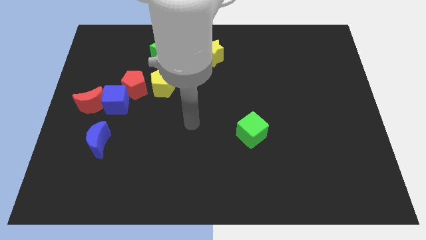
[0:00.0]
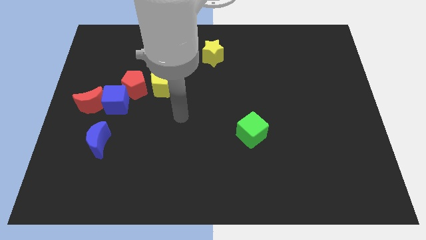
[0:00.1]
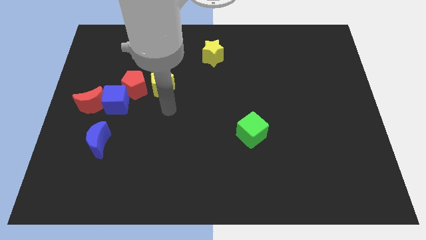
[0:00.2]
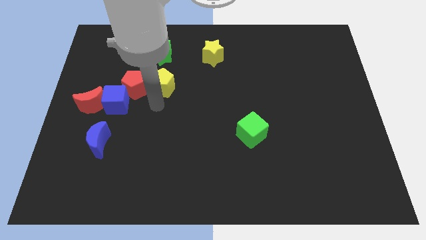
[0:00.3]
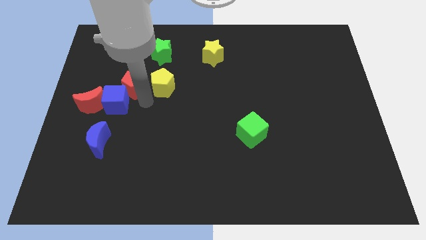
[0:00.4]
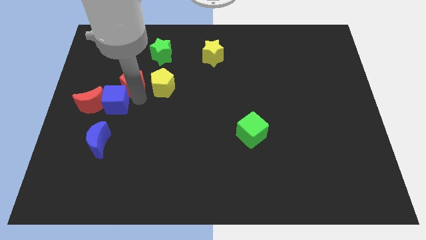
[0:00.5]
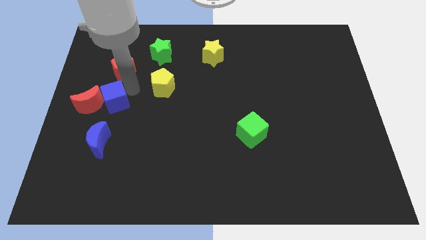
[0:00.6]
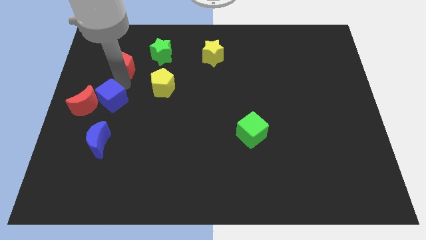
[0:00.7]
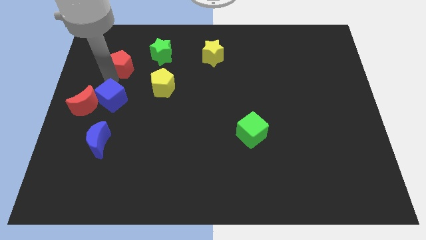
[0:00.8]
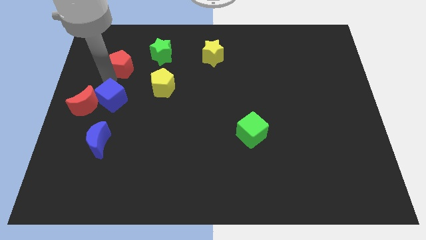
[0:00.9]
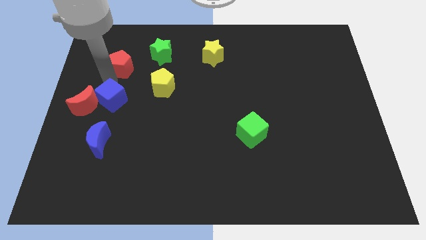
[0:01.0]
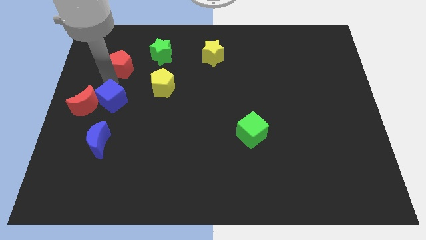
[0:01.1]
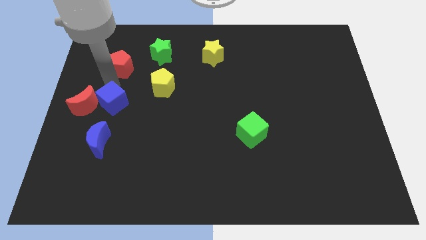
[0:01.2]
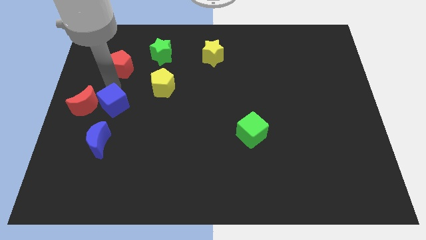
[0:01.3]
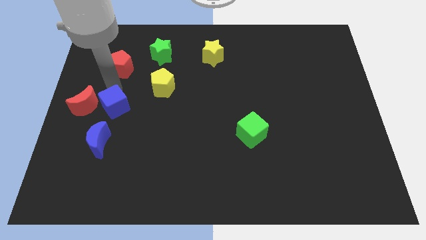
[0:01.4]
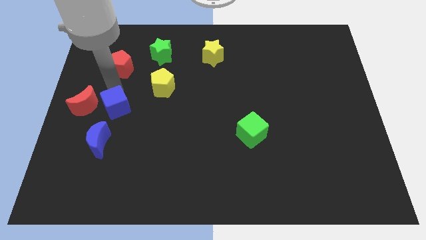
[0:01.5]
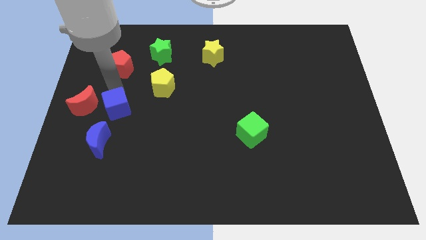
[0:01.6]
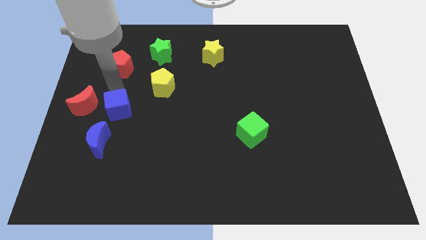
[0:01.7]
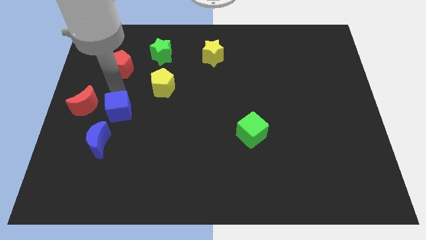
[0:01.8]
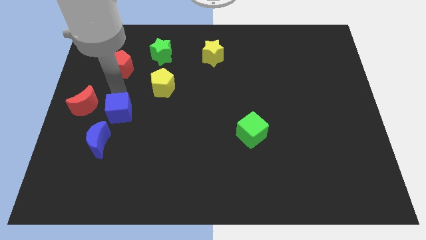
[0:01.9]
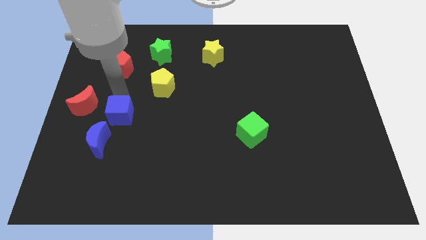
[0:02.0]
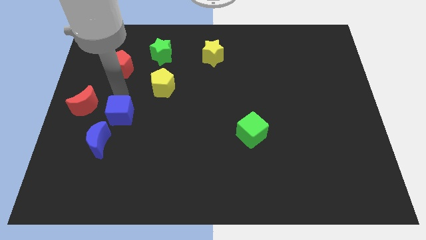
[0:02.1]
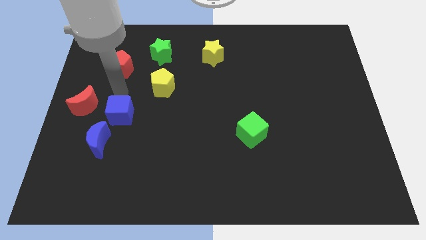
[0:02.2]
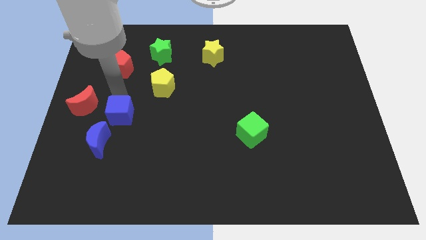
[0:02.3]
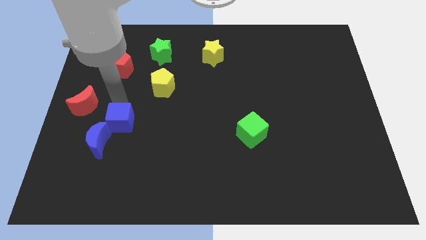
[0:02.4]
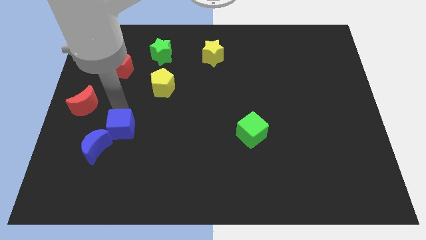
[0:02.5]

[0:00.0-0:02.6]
move the blue cube a little bit down

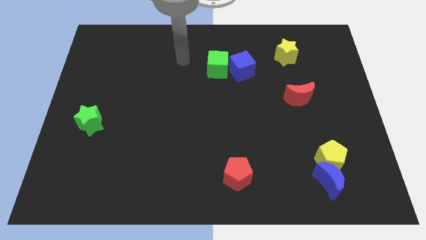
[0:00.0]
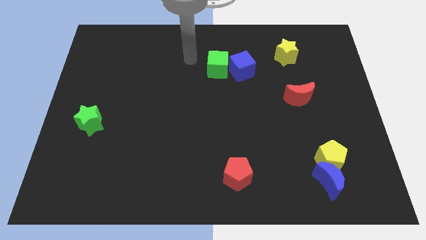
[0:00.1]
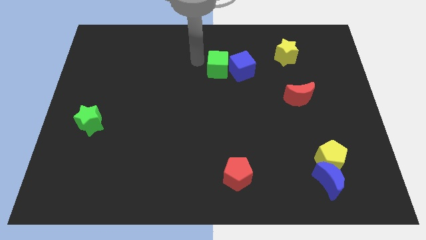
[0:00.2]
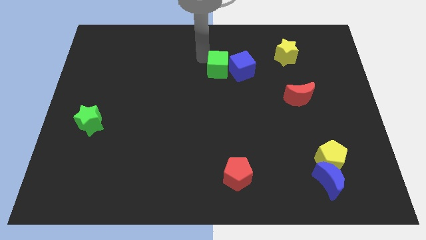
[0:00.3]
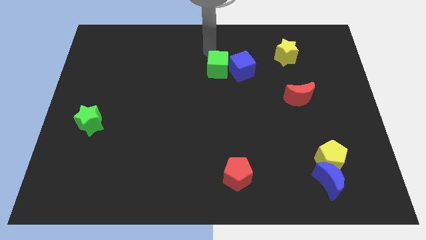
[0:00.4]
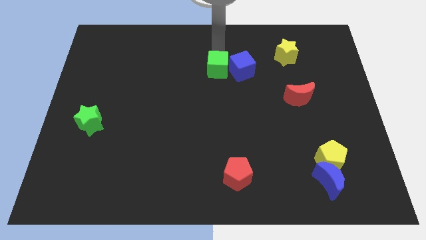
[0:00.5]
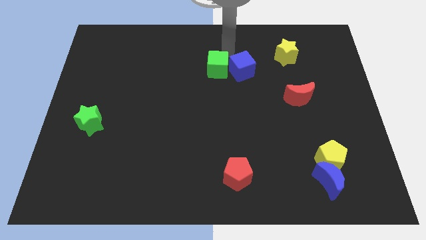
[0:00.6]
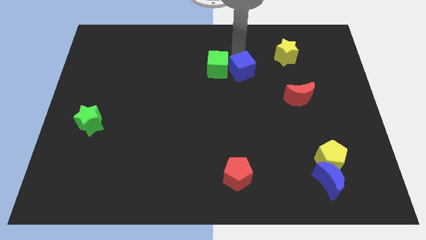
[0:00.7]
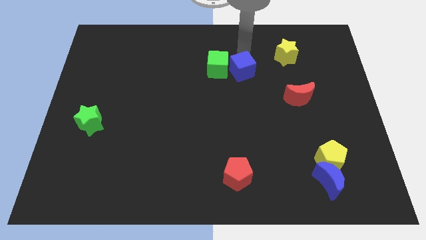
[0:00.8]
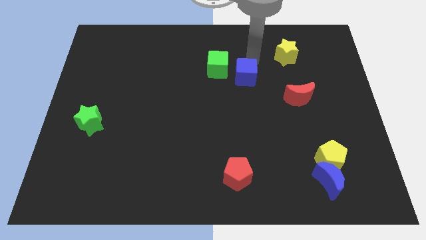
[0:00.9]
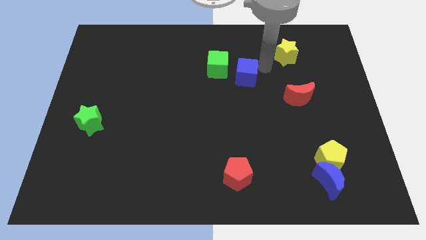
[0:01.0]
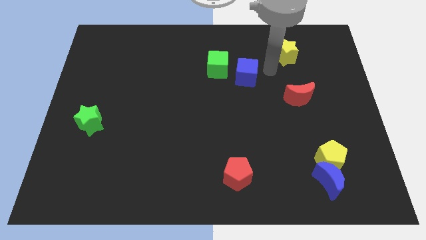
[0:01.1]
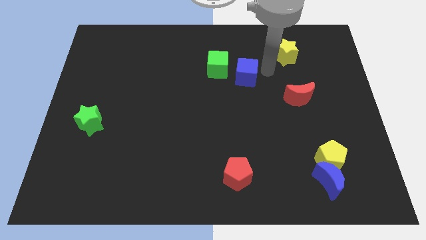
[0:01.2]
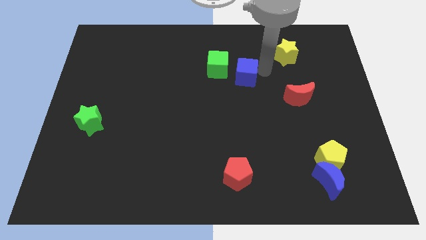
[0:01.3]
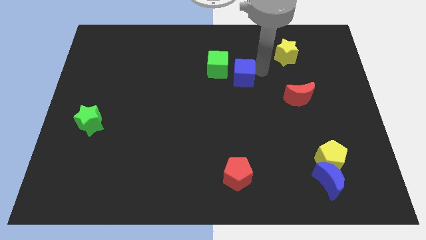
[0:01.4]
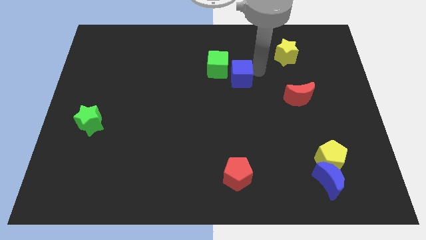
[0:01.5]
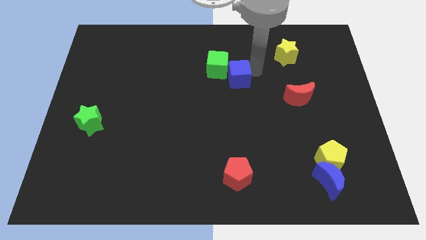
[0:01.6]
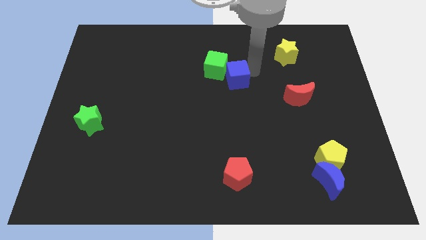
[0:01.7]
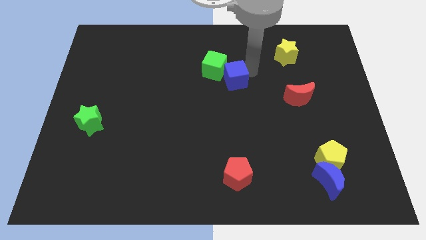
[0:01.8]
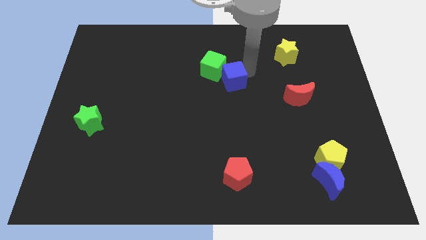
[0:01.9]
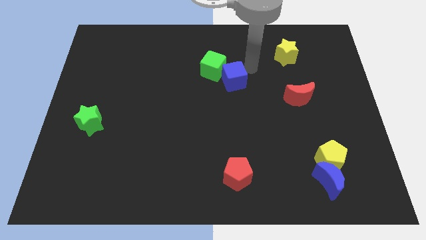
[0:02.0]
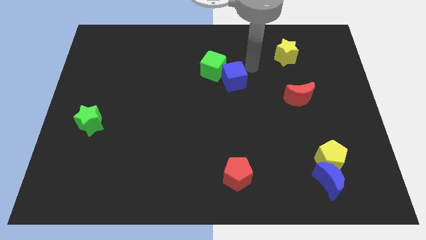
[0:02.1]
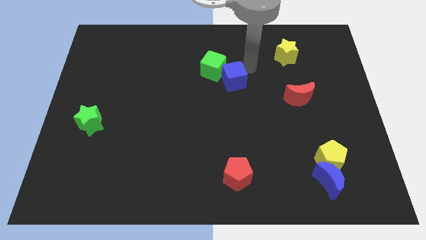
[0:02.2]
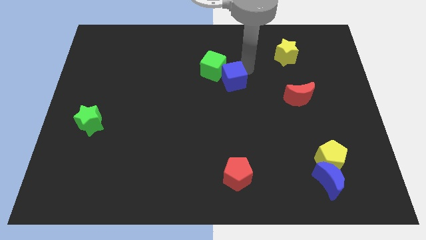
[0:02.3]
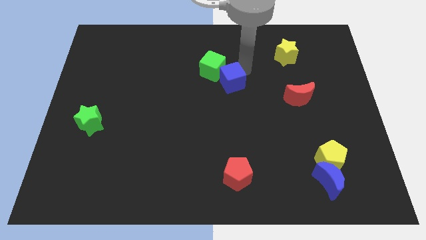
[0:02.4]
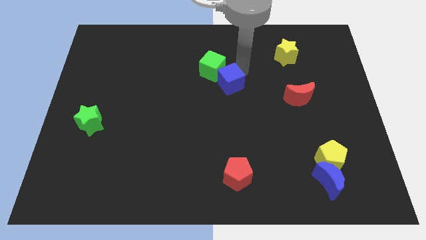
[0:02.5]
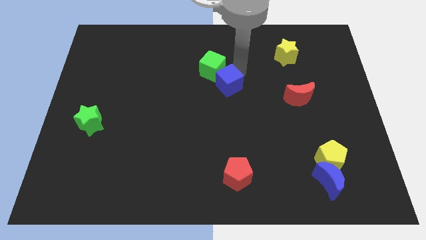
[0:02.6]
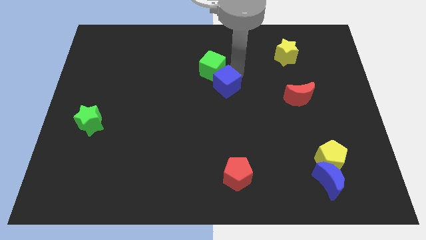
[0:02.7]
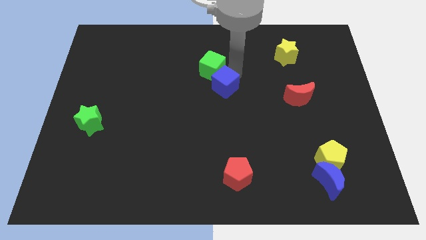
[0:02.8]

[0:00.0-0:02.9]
push the blue cube a little bit down and to the left

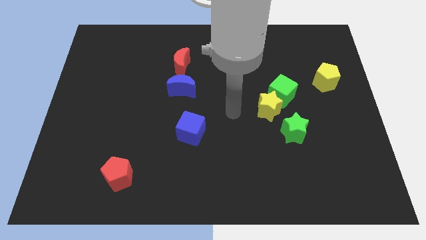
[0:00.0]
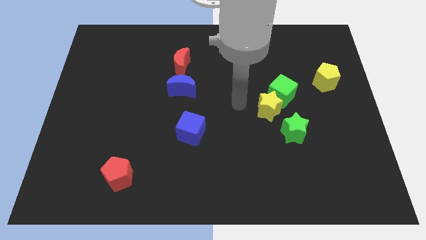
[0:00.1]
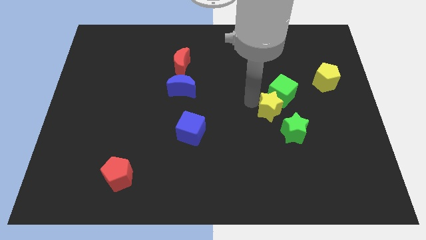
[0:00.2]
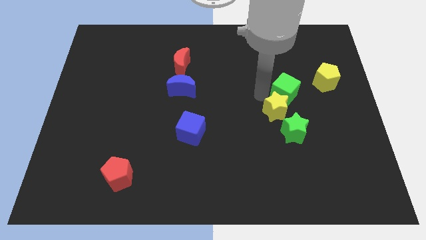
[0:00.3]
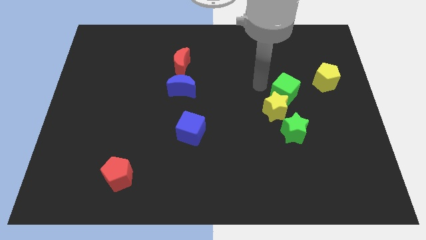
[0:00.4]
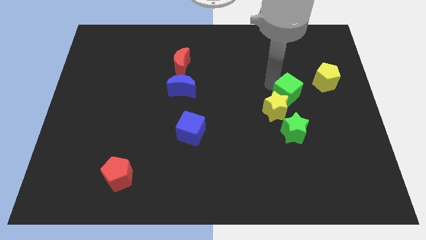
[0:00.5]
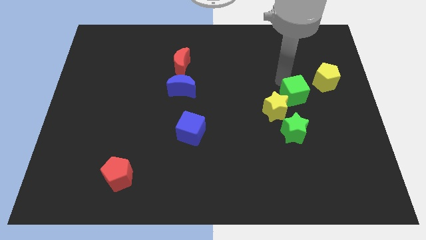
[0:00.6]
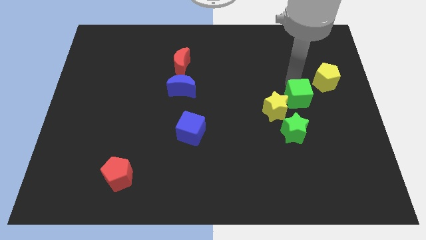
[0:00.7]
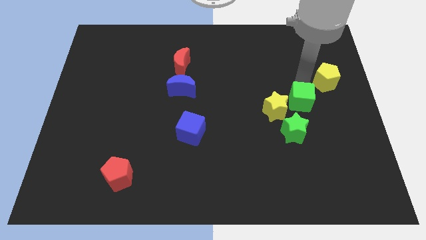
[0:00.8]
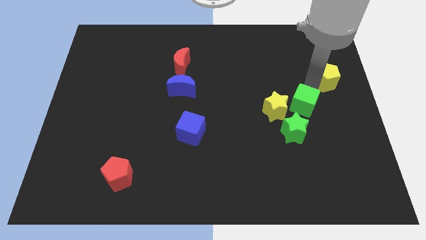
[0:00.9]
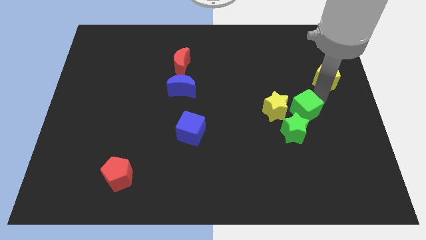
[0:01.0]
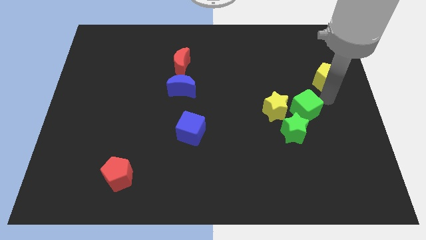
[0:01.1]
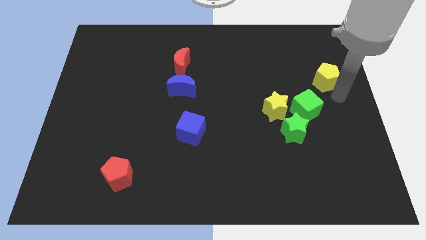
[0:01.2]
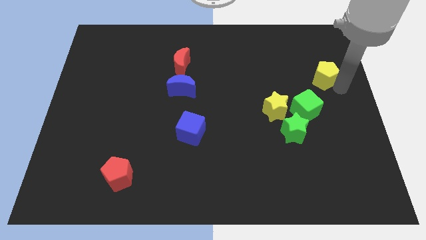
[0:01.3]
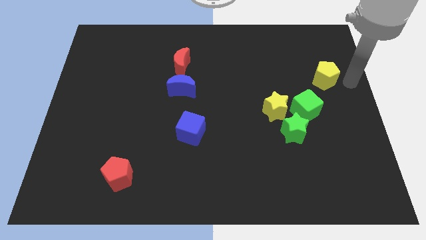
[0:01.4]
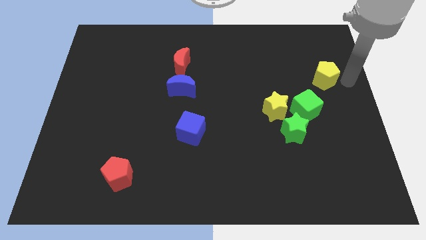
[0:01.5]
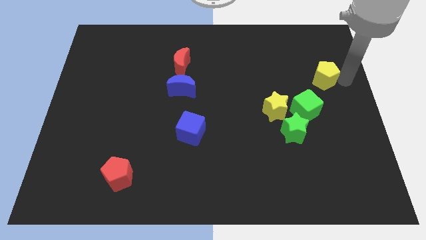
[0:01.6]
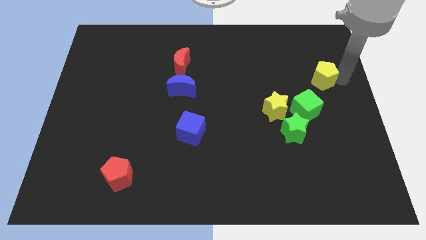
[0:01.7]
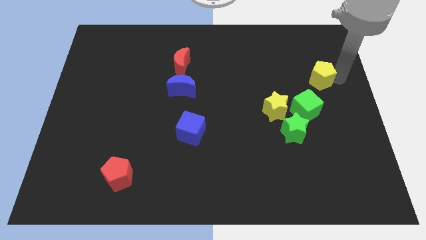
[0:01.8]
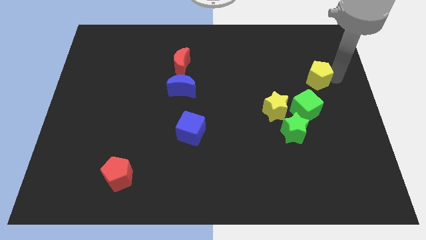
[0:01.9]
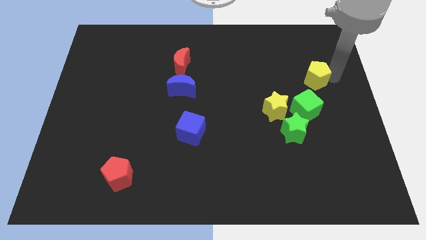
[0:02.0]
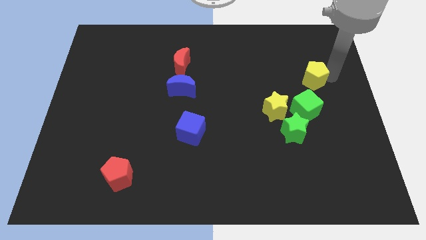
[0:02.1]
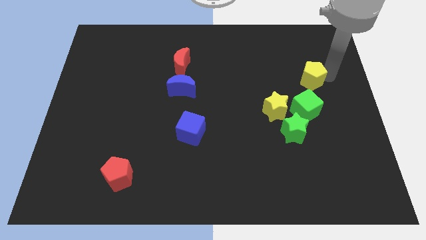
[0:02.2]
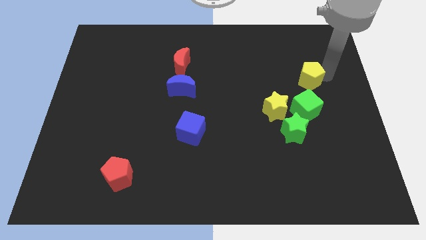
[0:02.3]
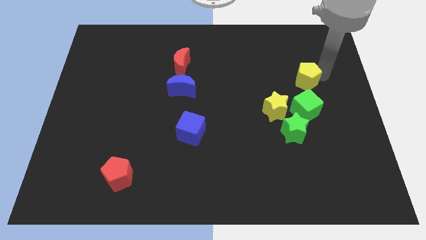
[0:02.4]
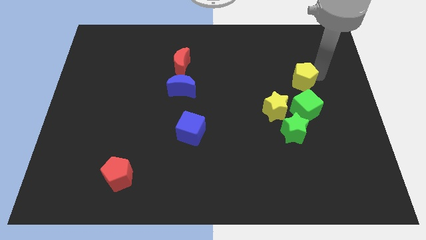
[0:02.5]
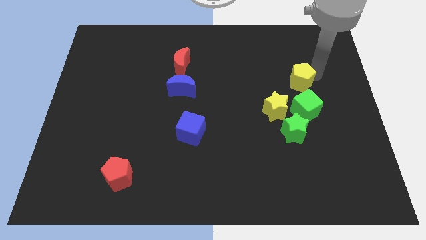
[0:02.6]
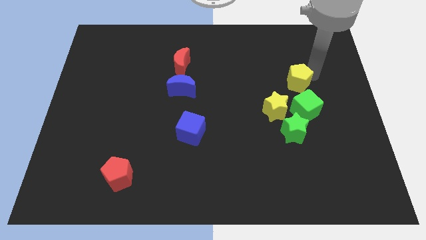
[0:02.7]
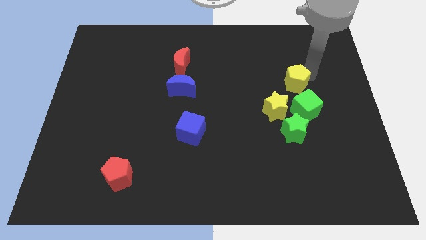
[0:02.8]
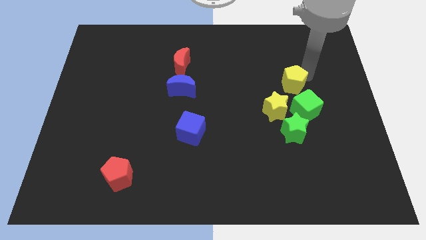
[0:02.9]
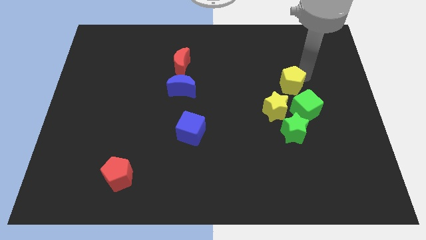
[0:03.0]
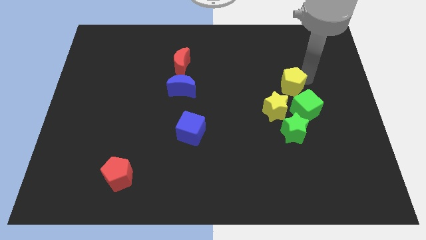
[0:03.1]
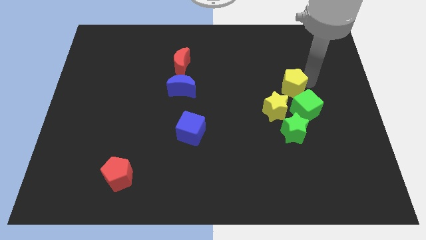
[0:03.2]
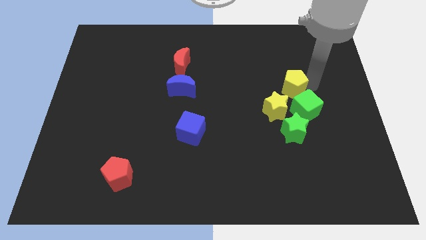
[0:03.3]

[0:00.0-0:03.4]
slide the yellow pentagon downwards and then left a little bit
